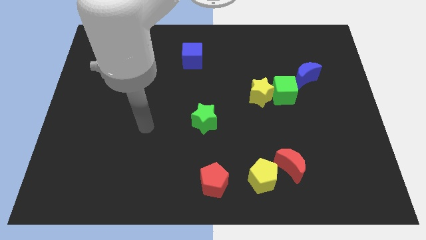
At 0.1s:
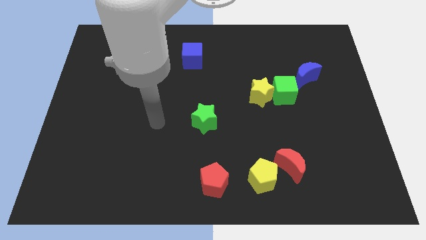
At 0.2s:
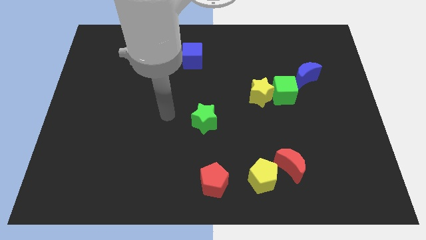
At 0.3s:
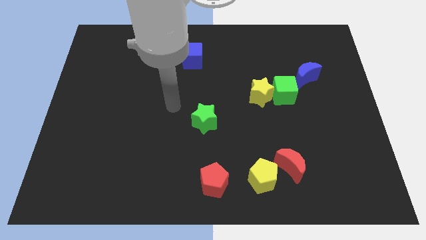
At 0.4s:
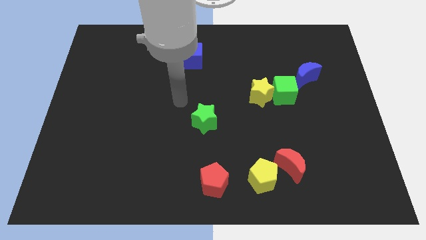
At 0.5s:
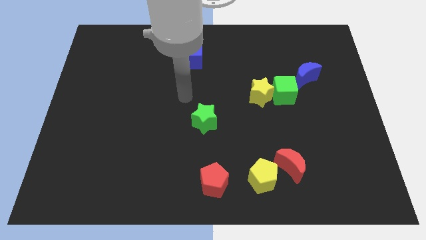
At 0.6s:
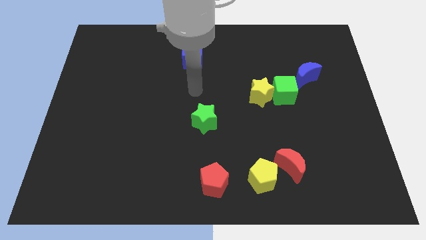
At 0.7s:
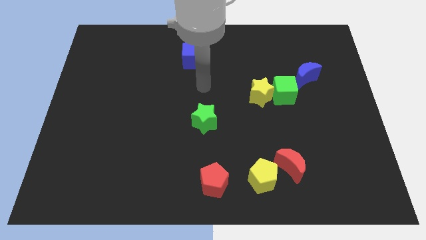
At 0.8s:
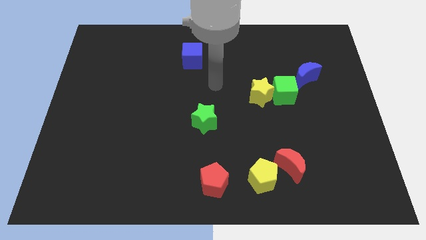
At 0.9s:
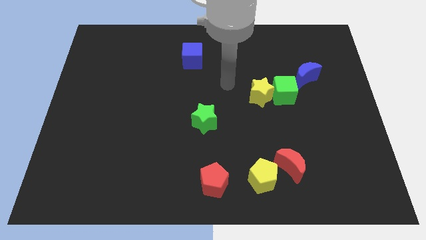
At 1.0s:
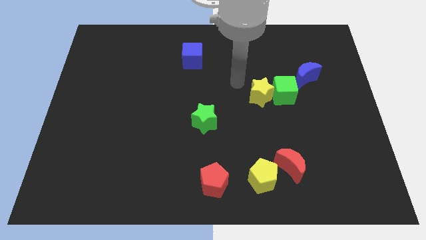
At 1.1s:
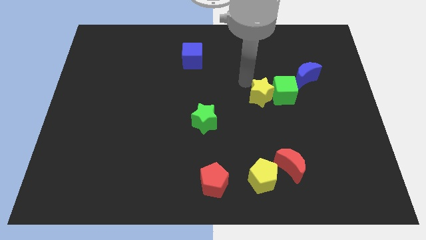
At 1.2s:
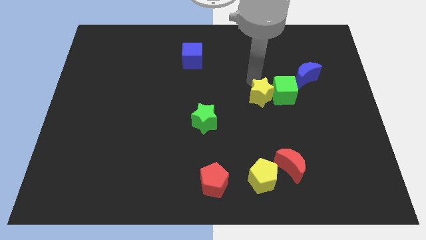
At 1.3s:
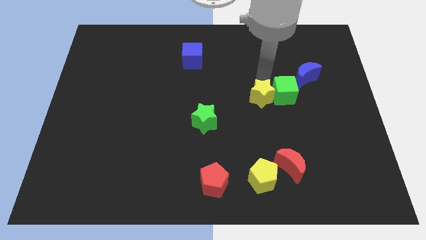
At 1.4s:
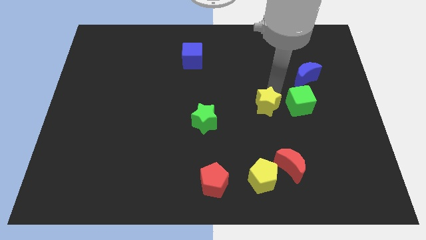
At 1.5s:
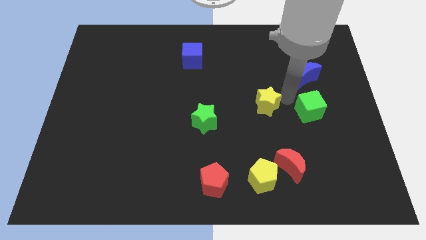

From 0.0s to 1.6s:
pull the yellow star apart from the green cube

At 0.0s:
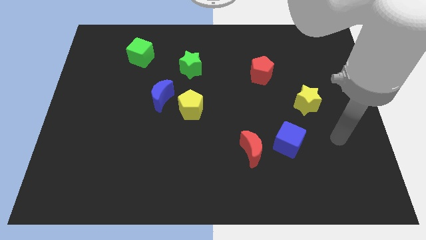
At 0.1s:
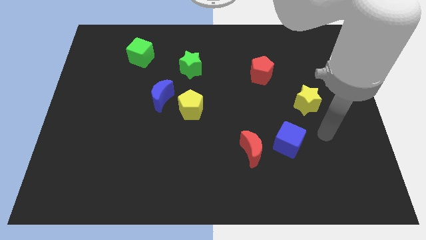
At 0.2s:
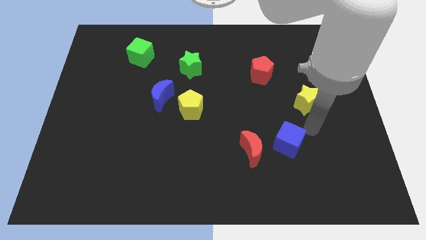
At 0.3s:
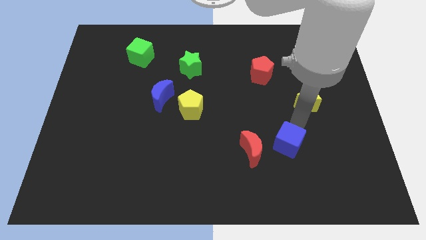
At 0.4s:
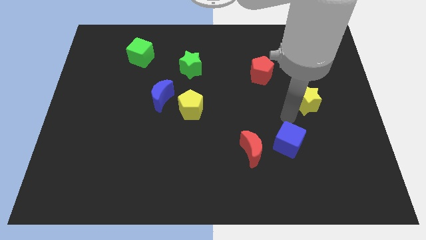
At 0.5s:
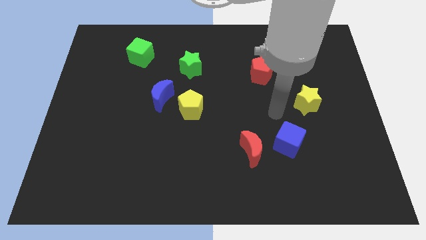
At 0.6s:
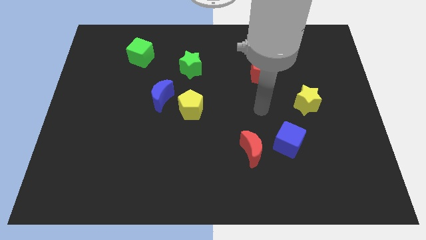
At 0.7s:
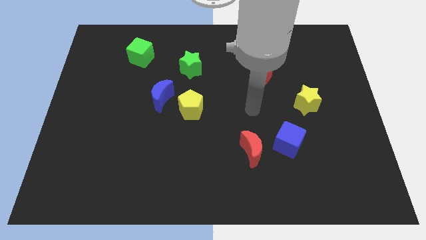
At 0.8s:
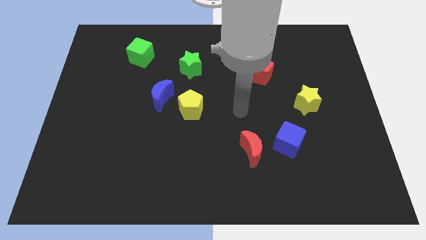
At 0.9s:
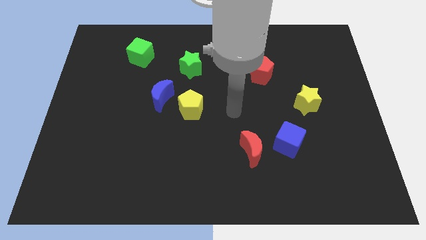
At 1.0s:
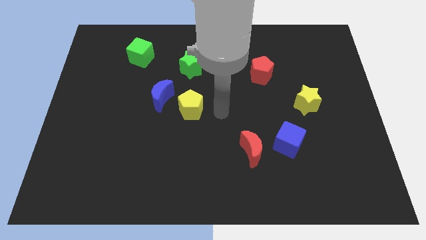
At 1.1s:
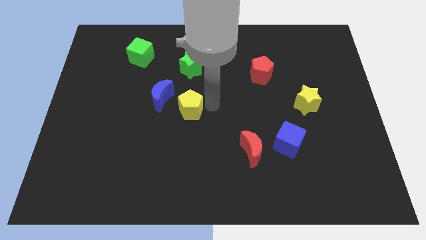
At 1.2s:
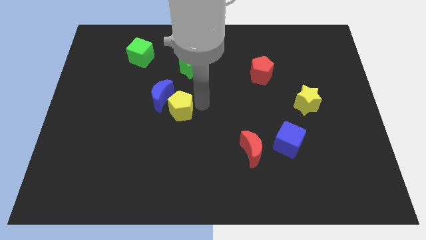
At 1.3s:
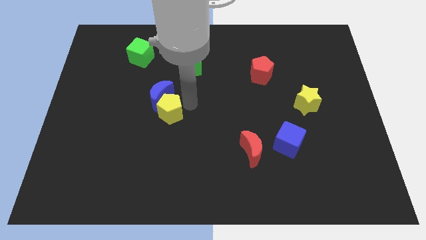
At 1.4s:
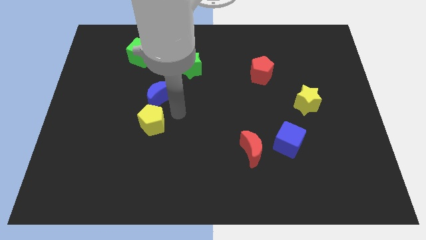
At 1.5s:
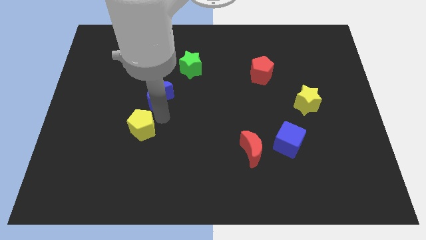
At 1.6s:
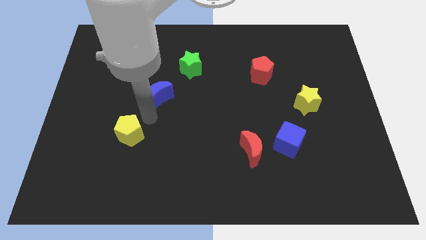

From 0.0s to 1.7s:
separate the blue moon from the yellow pentagon

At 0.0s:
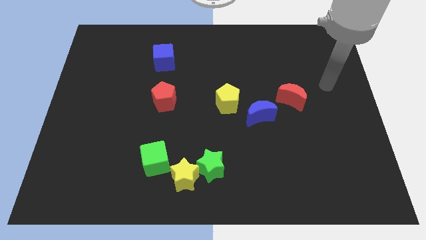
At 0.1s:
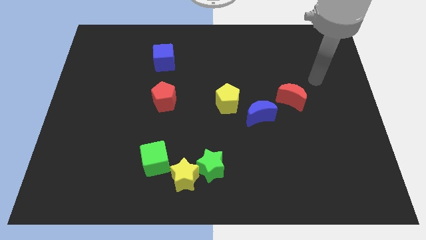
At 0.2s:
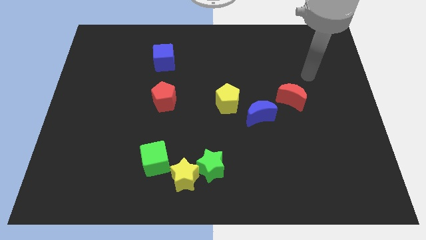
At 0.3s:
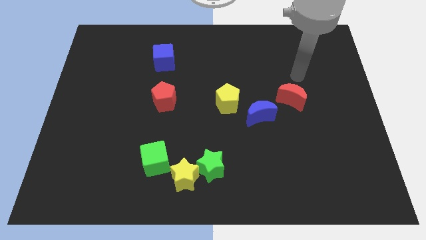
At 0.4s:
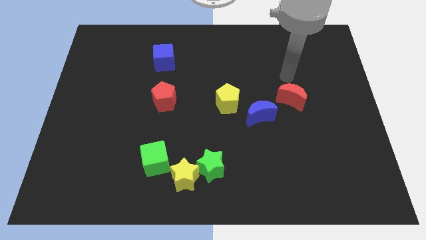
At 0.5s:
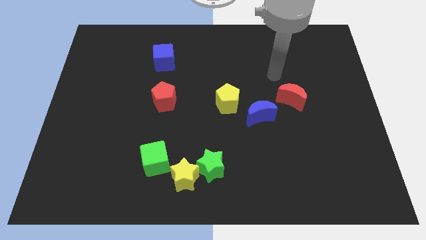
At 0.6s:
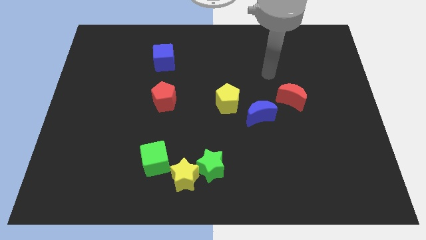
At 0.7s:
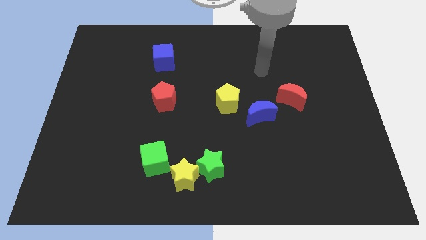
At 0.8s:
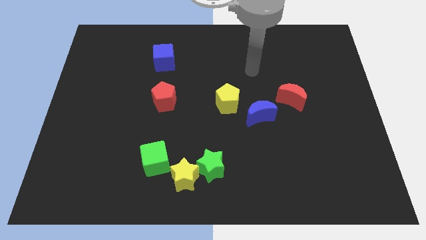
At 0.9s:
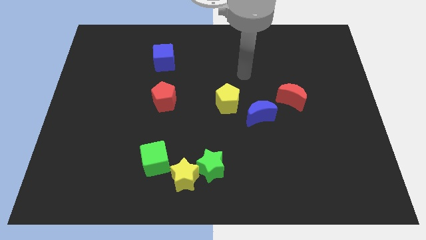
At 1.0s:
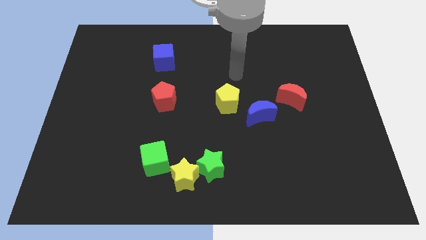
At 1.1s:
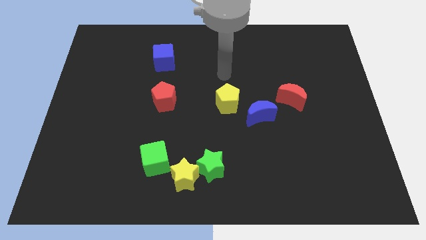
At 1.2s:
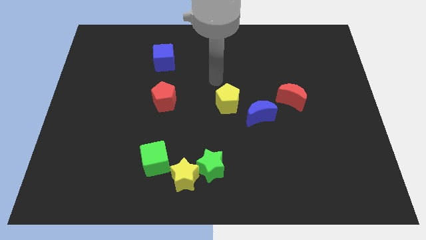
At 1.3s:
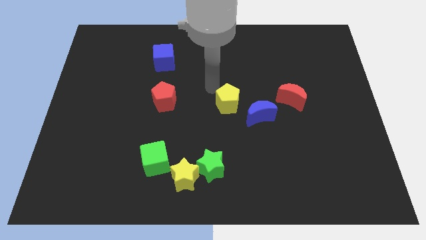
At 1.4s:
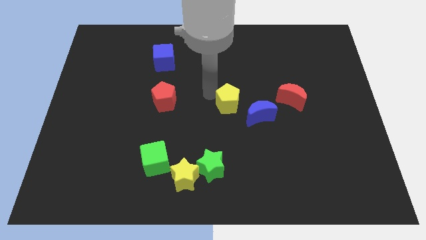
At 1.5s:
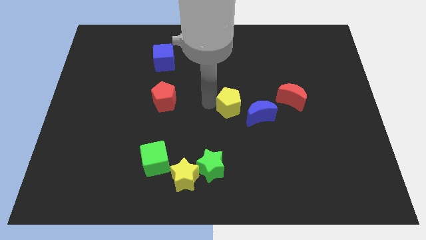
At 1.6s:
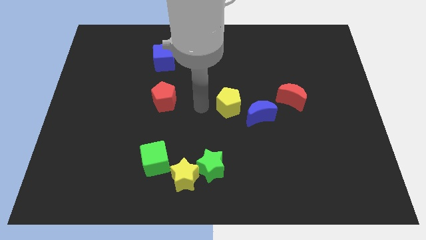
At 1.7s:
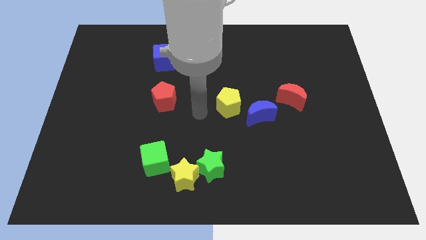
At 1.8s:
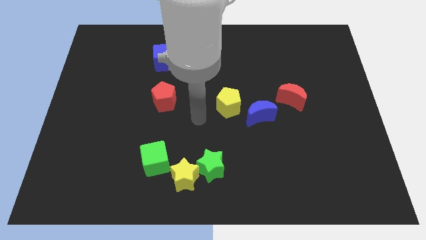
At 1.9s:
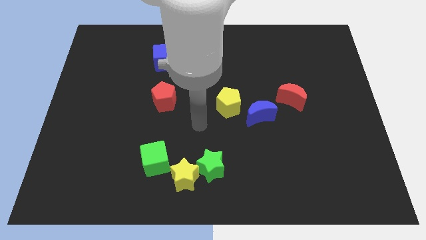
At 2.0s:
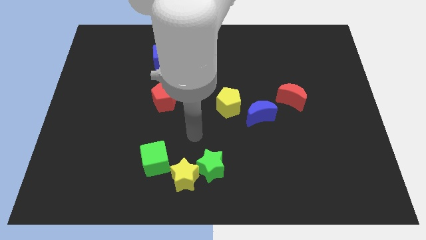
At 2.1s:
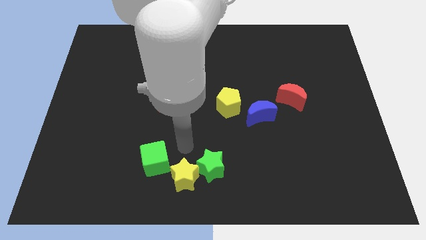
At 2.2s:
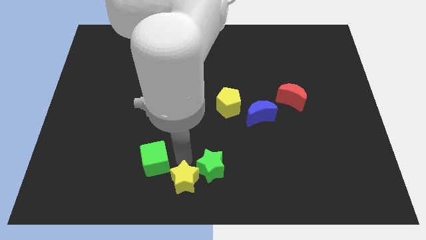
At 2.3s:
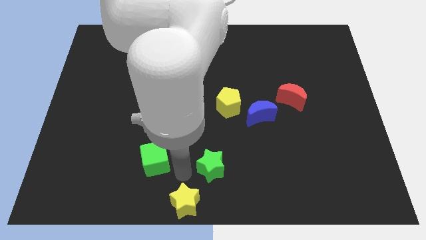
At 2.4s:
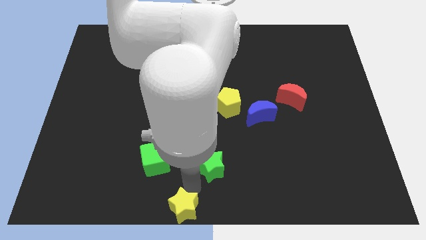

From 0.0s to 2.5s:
separate the green star from the yellow star

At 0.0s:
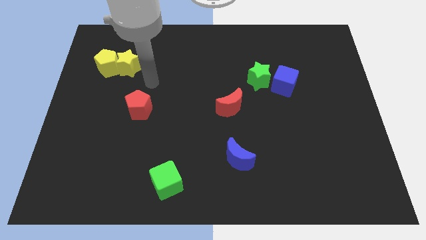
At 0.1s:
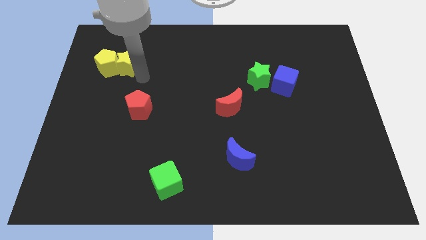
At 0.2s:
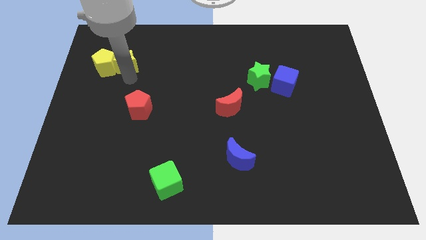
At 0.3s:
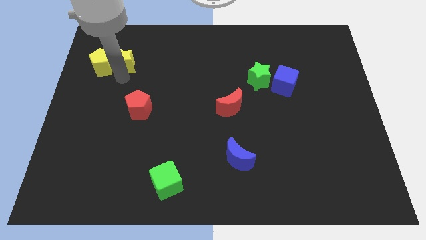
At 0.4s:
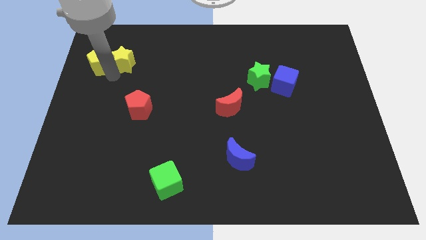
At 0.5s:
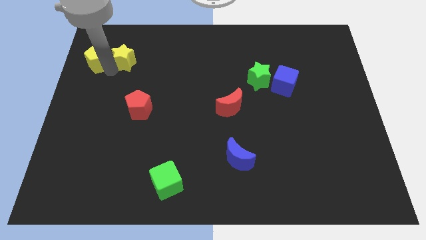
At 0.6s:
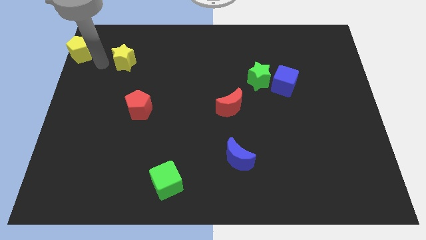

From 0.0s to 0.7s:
move the yellow star away from the yellow pentagon

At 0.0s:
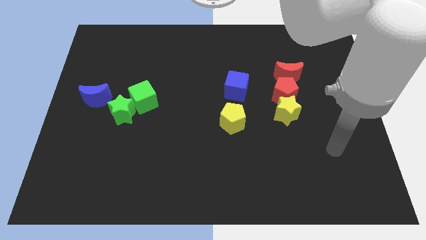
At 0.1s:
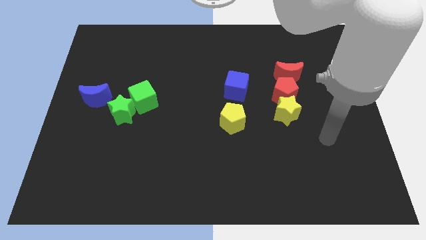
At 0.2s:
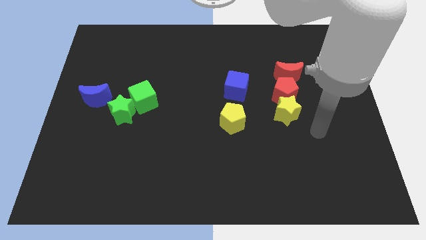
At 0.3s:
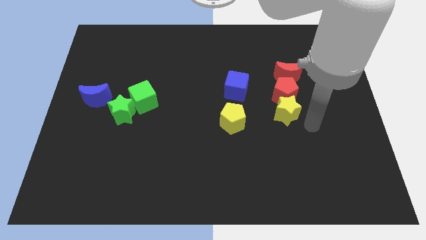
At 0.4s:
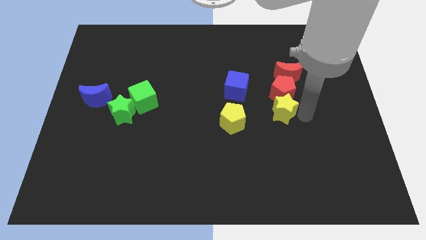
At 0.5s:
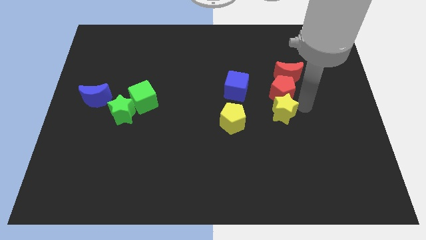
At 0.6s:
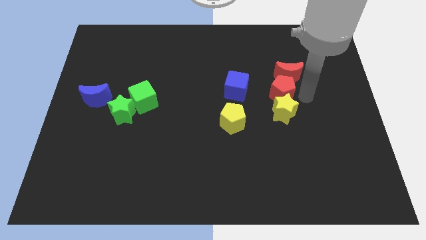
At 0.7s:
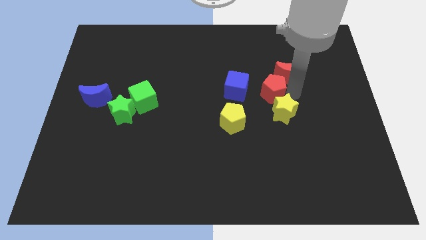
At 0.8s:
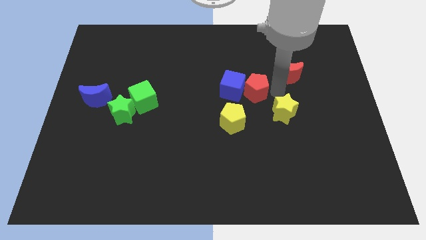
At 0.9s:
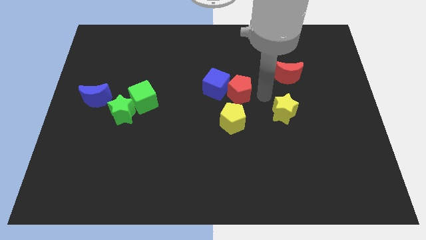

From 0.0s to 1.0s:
move the yellow star away from the red pentagon

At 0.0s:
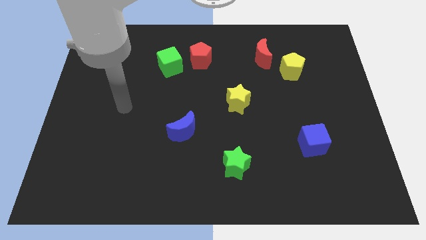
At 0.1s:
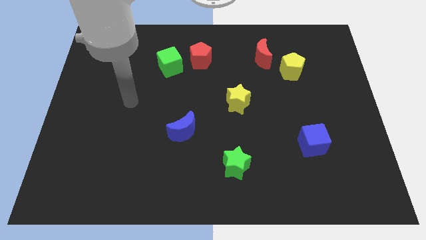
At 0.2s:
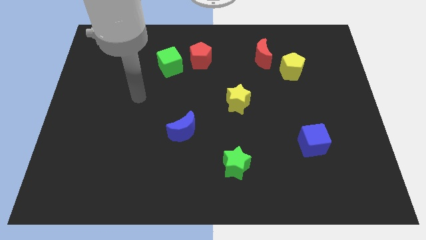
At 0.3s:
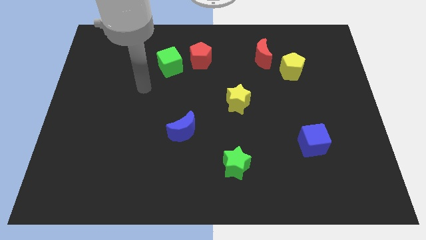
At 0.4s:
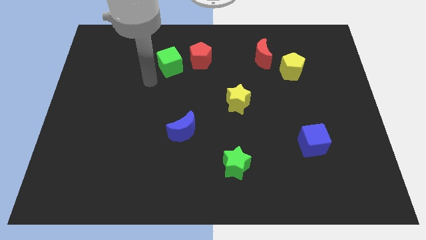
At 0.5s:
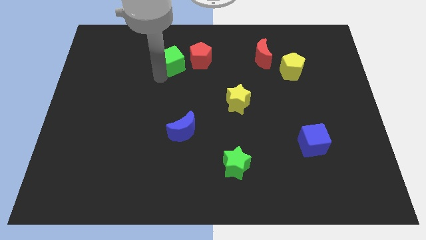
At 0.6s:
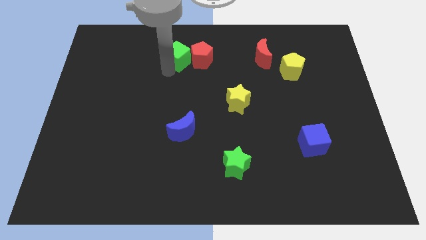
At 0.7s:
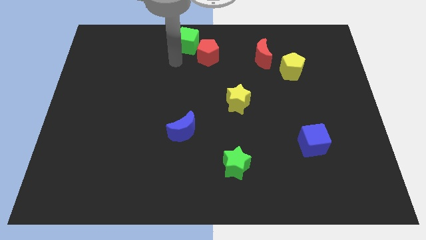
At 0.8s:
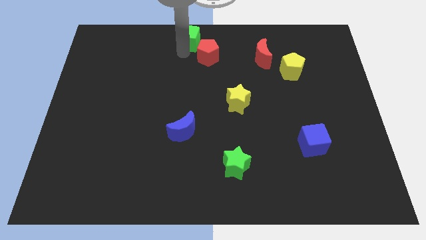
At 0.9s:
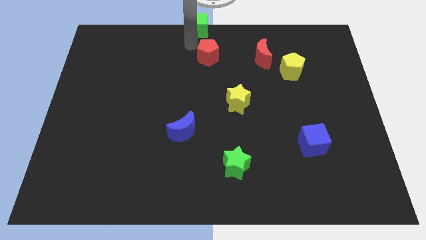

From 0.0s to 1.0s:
move the red pentagon away from the green cube

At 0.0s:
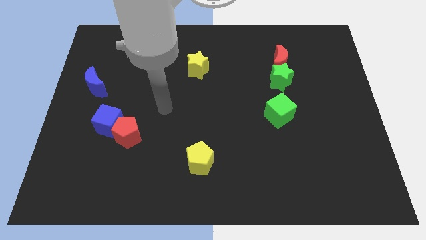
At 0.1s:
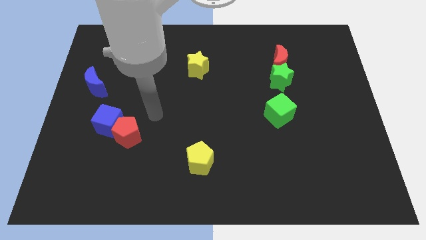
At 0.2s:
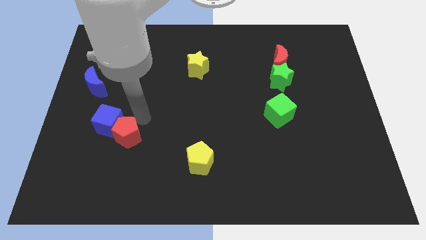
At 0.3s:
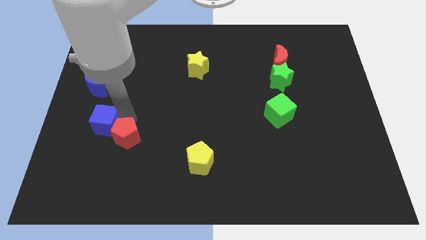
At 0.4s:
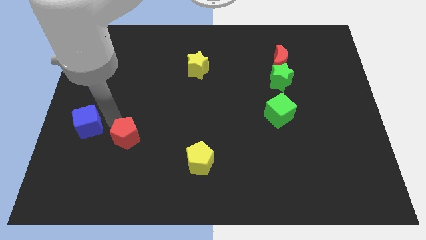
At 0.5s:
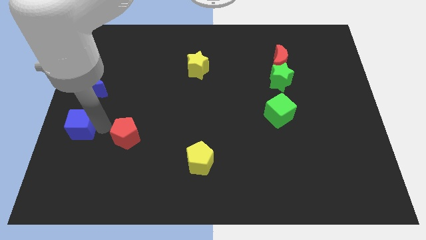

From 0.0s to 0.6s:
move the red pentagon away from the blue cube

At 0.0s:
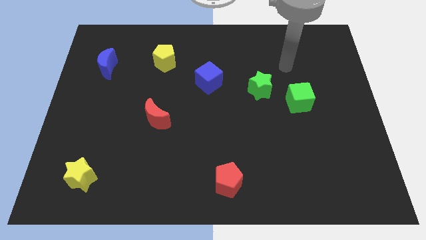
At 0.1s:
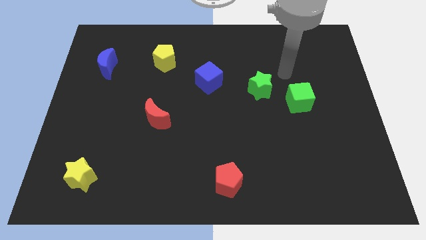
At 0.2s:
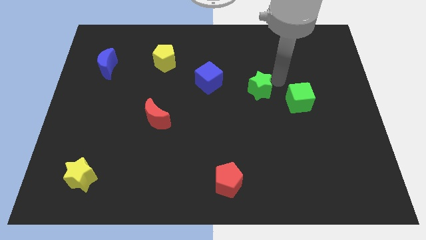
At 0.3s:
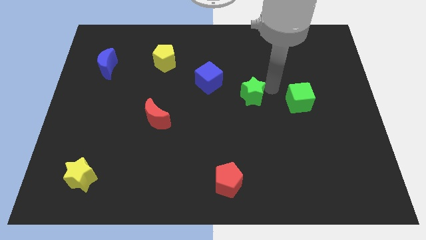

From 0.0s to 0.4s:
move the green cube away from the green star

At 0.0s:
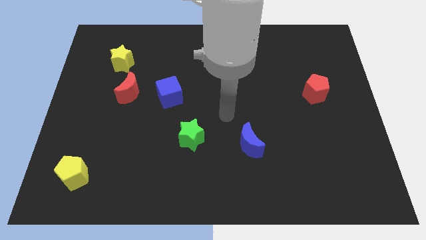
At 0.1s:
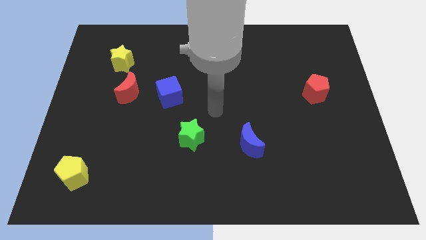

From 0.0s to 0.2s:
separate the red moon from the blue cube
